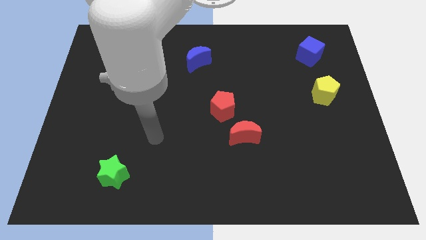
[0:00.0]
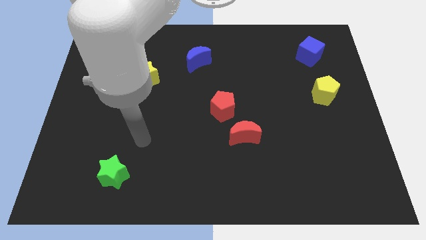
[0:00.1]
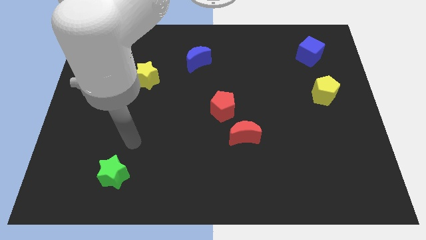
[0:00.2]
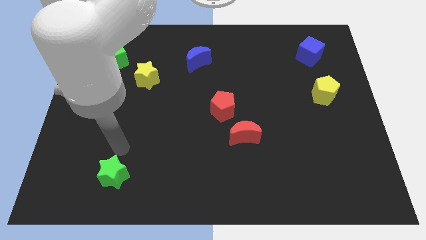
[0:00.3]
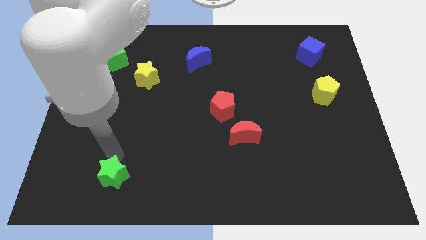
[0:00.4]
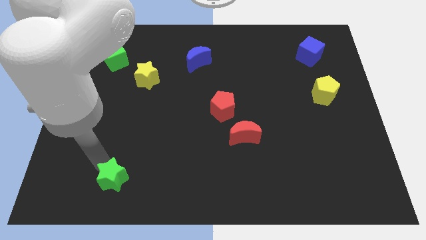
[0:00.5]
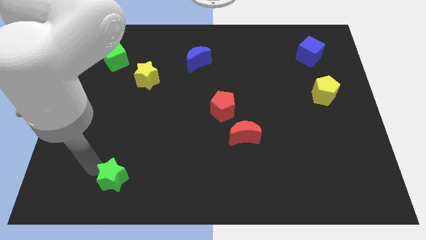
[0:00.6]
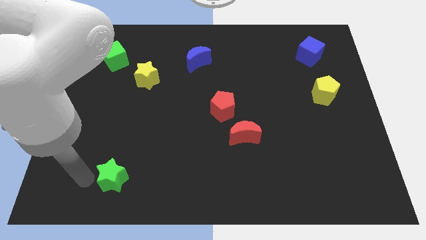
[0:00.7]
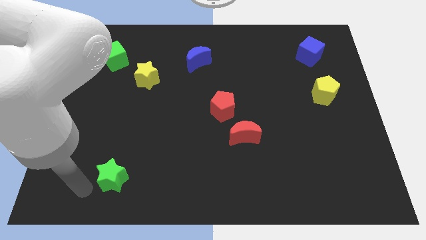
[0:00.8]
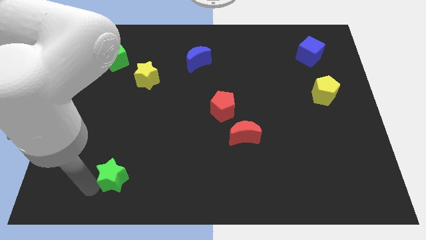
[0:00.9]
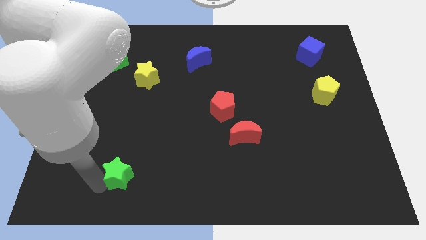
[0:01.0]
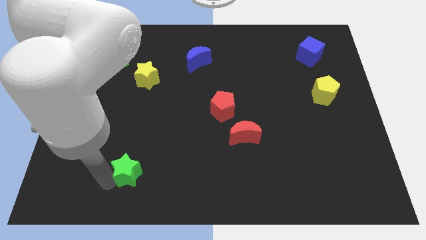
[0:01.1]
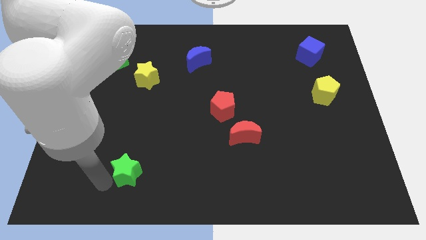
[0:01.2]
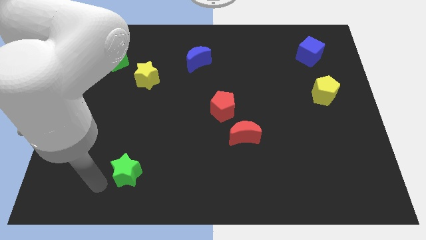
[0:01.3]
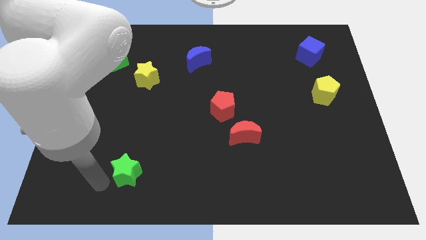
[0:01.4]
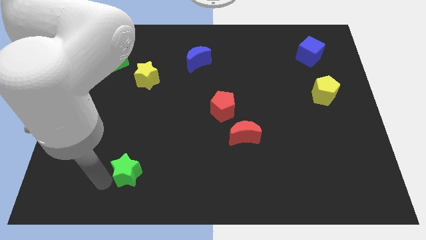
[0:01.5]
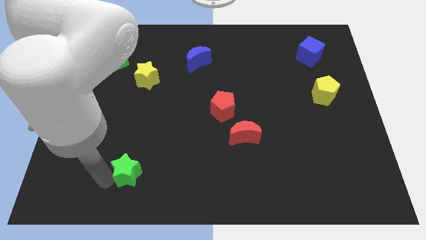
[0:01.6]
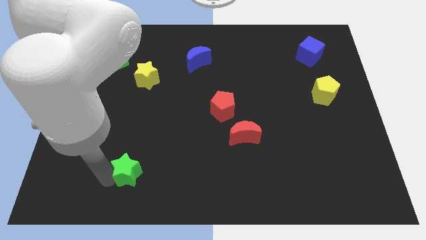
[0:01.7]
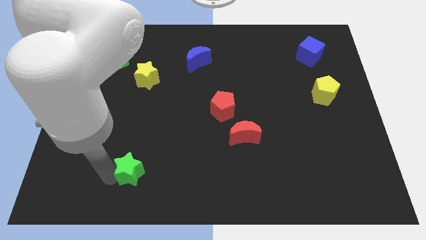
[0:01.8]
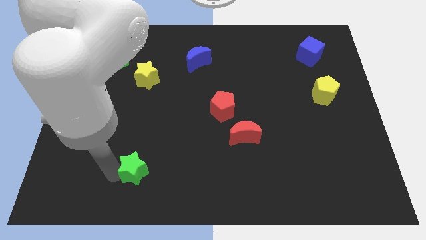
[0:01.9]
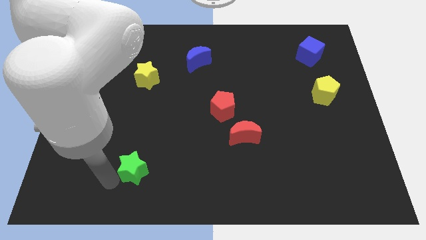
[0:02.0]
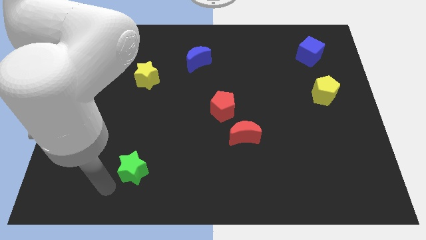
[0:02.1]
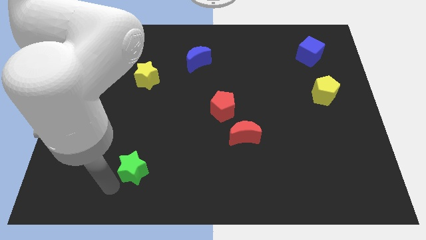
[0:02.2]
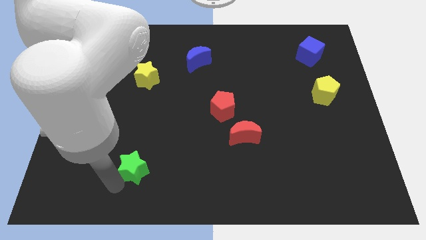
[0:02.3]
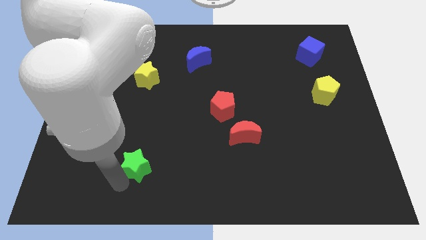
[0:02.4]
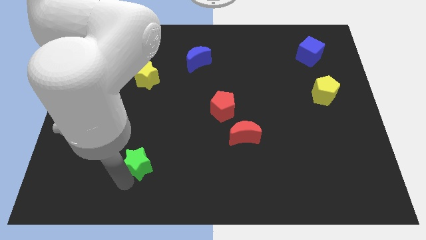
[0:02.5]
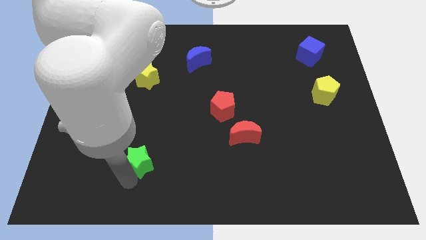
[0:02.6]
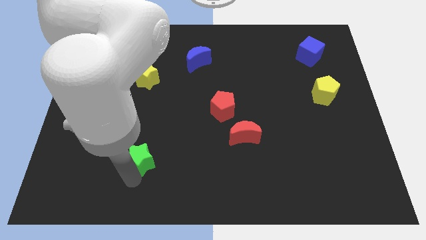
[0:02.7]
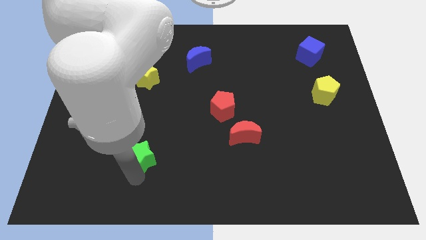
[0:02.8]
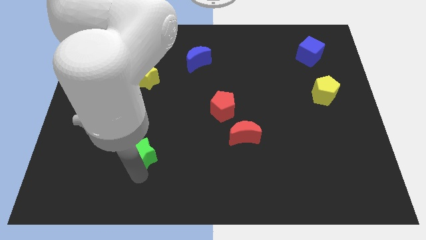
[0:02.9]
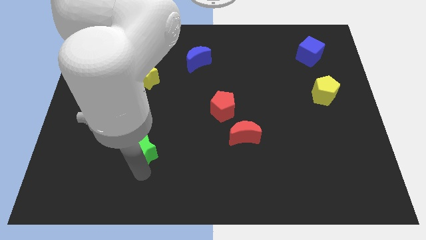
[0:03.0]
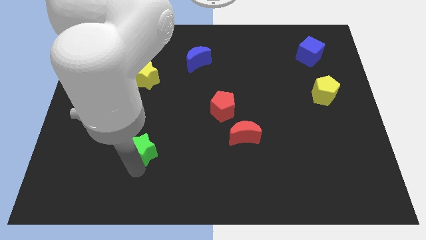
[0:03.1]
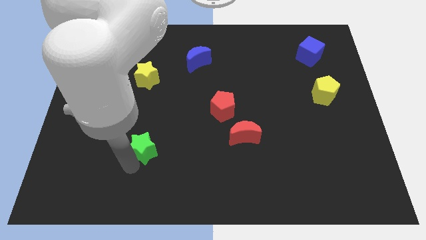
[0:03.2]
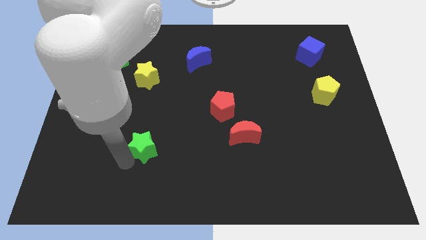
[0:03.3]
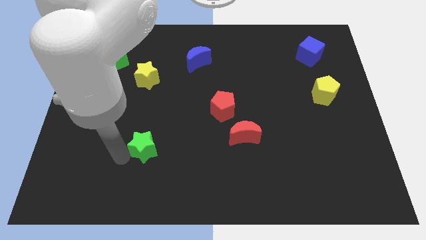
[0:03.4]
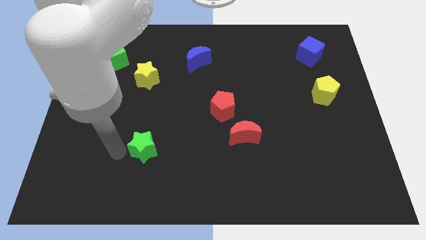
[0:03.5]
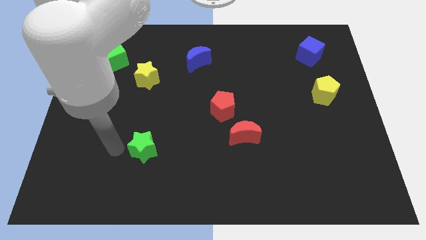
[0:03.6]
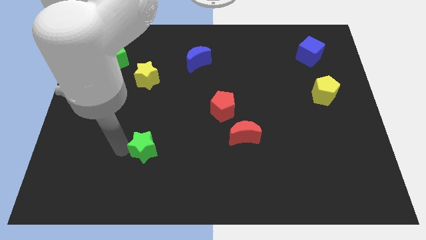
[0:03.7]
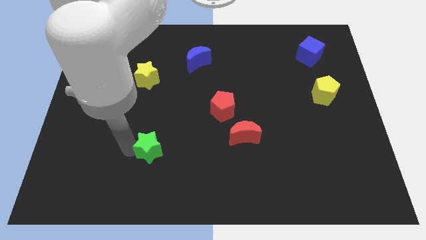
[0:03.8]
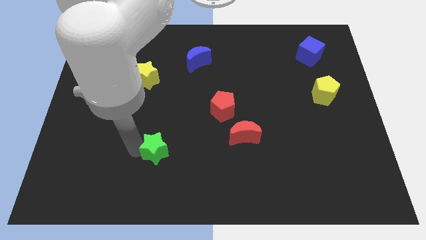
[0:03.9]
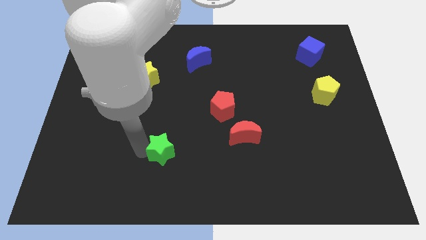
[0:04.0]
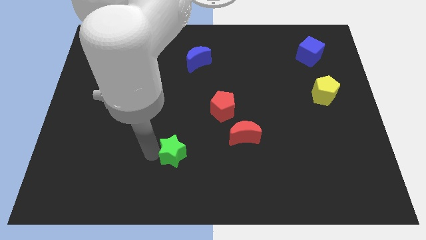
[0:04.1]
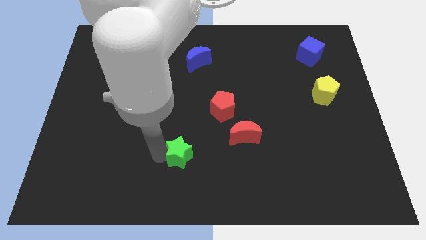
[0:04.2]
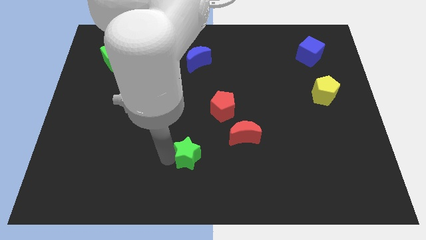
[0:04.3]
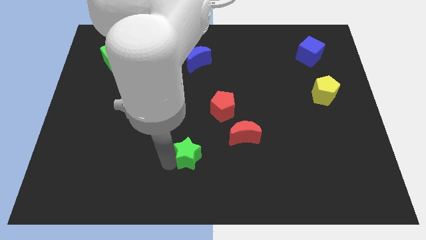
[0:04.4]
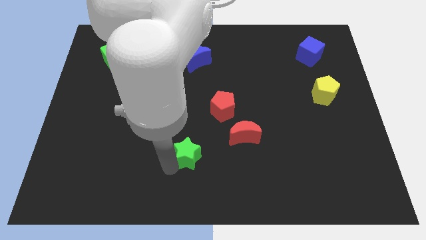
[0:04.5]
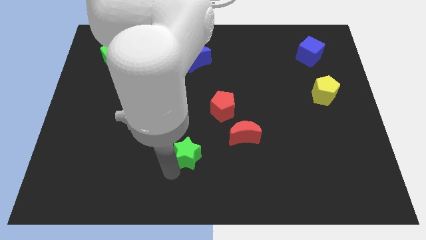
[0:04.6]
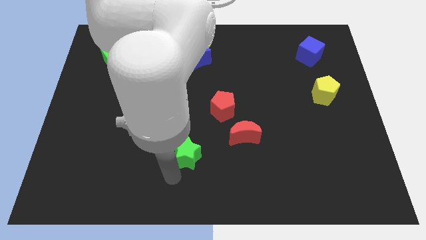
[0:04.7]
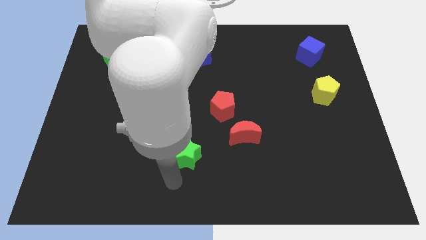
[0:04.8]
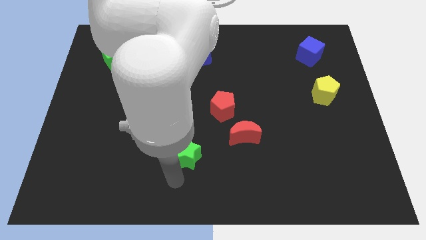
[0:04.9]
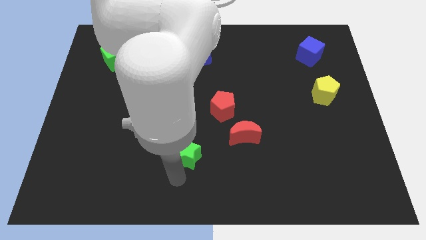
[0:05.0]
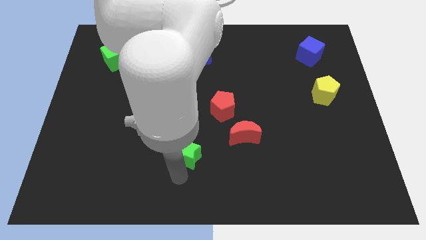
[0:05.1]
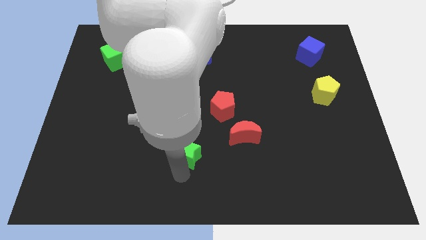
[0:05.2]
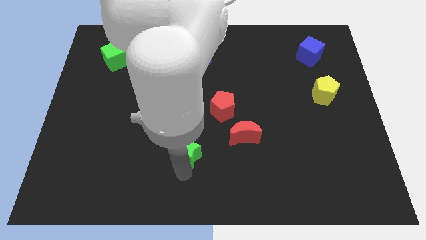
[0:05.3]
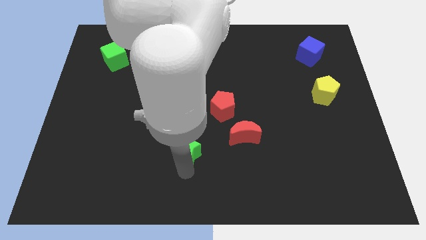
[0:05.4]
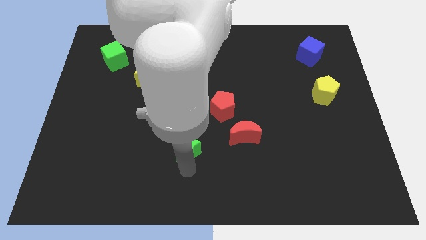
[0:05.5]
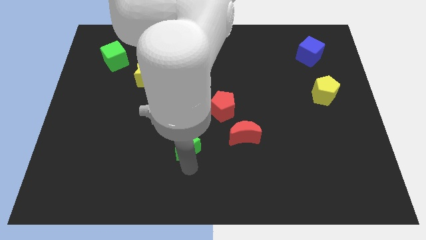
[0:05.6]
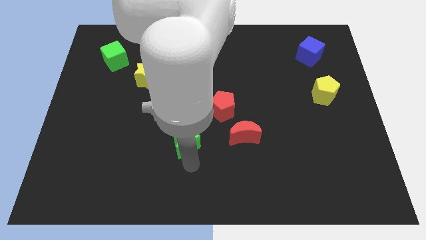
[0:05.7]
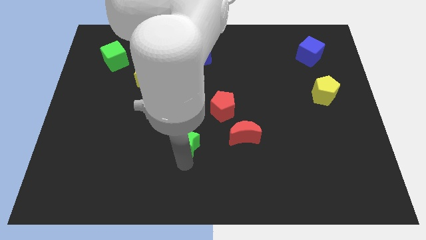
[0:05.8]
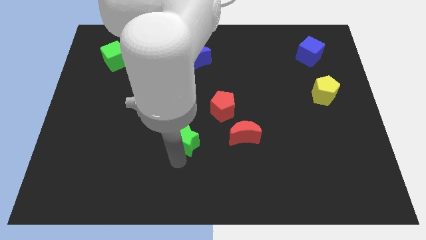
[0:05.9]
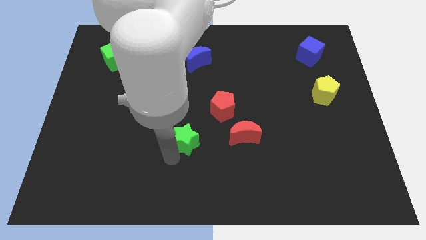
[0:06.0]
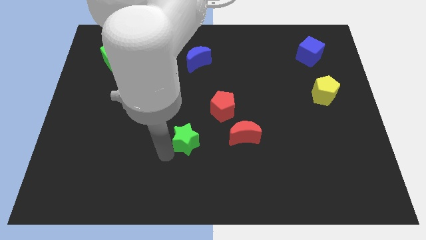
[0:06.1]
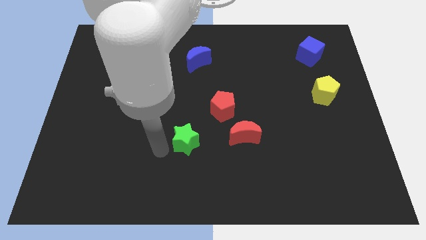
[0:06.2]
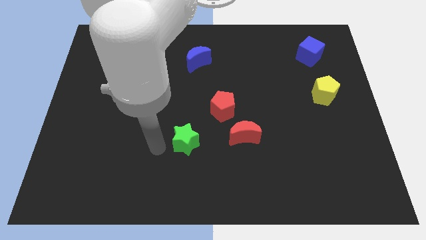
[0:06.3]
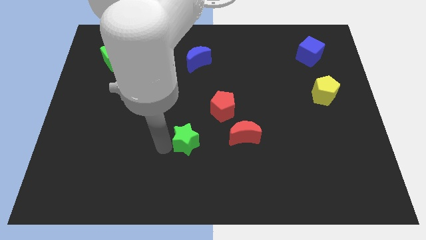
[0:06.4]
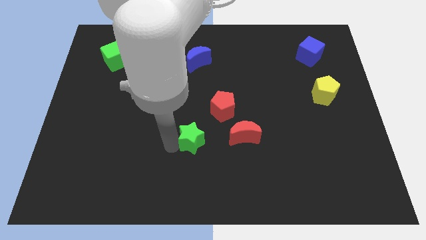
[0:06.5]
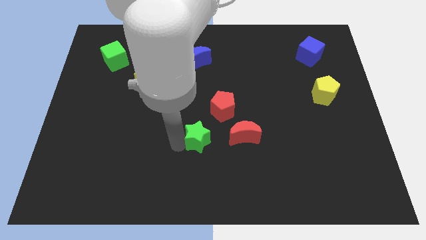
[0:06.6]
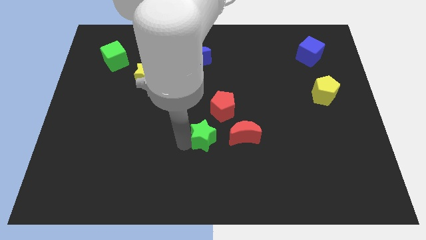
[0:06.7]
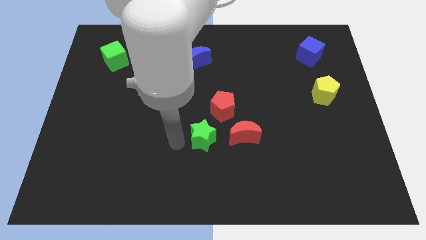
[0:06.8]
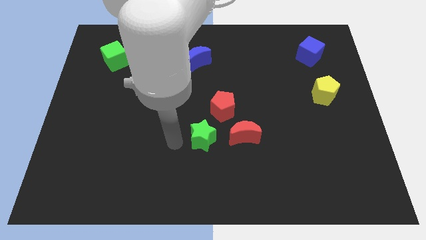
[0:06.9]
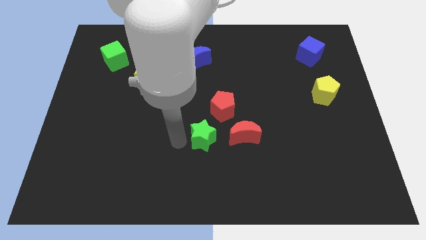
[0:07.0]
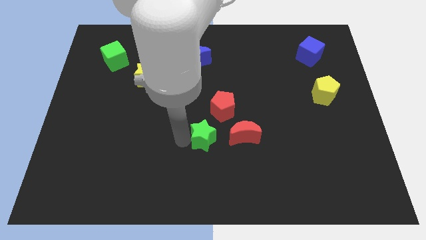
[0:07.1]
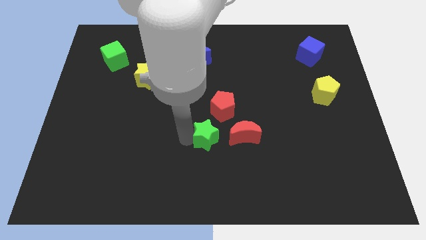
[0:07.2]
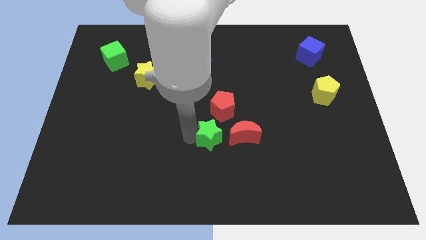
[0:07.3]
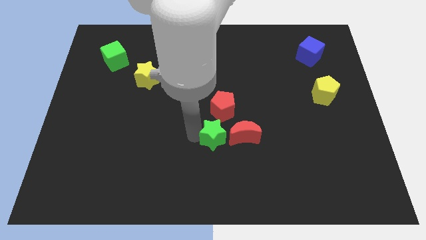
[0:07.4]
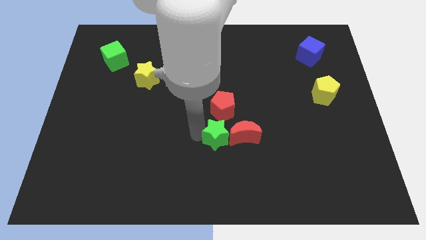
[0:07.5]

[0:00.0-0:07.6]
push the green star close to the red moon
